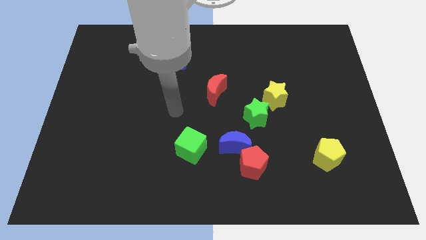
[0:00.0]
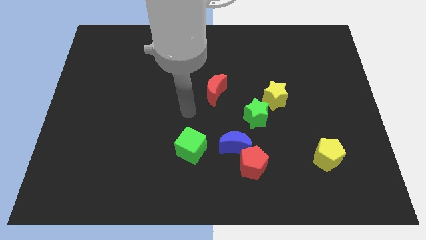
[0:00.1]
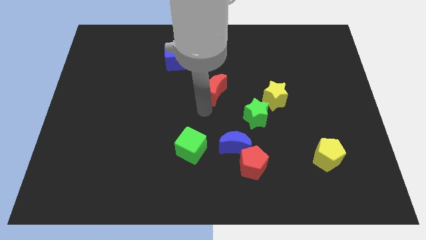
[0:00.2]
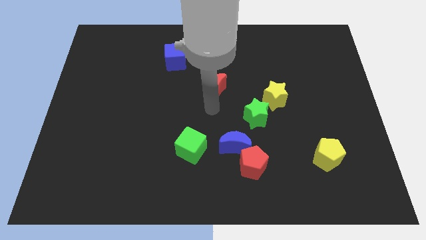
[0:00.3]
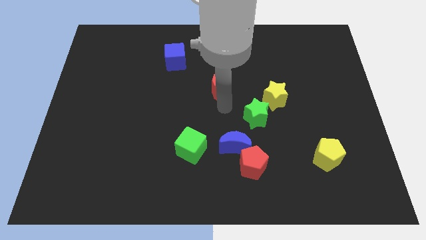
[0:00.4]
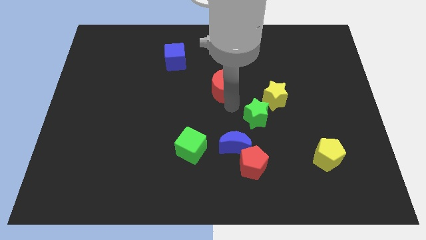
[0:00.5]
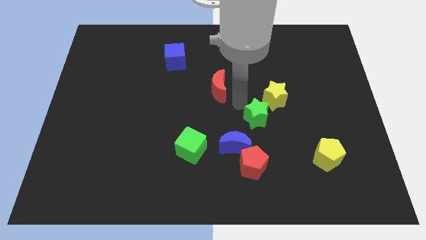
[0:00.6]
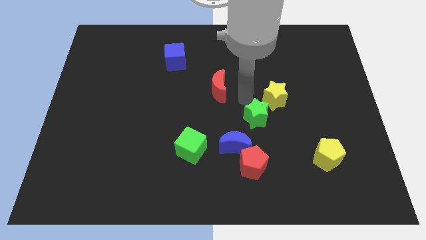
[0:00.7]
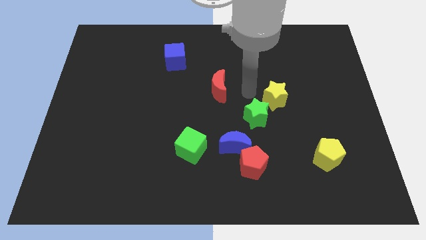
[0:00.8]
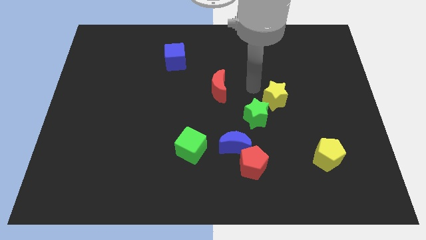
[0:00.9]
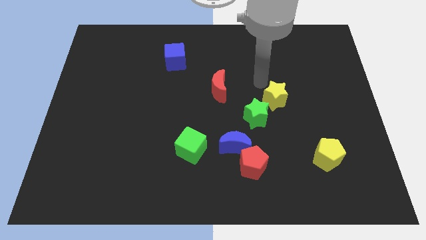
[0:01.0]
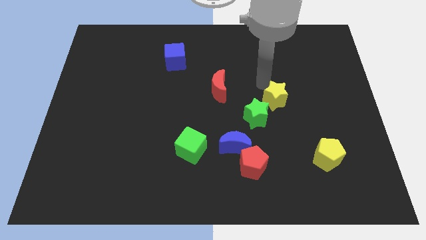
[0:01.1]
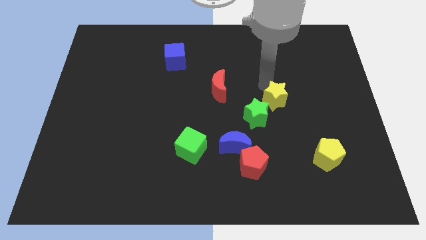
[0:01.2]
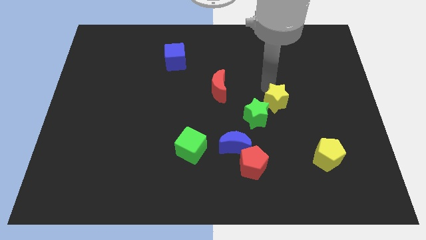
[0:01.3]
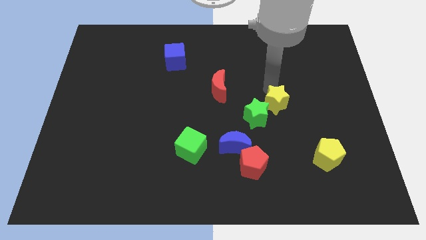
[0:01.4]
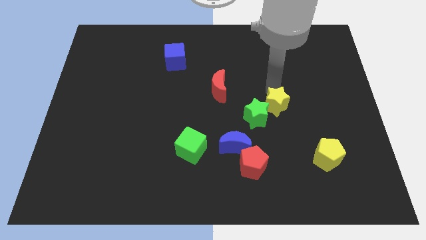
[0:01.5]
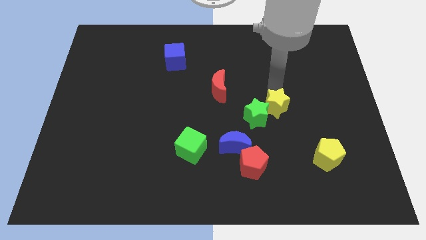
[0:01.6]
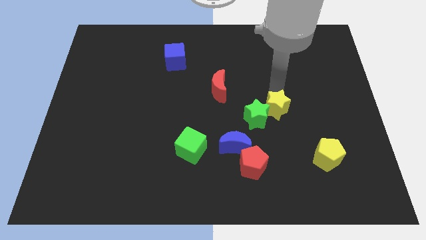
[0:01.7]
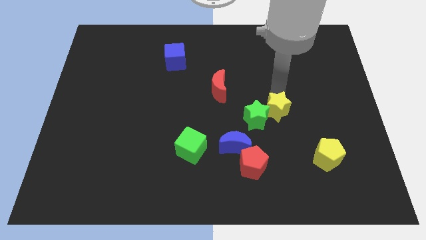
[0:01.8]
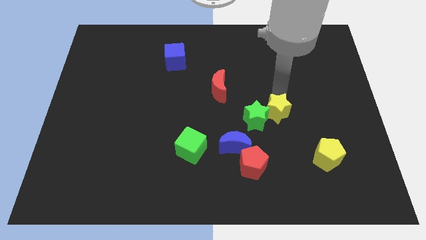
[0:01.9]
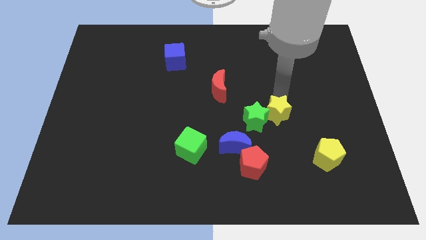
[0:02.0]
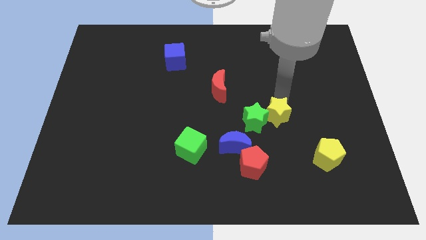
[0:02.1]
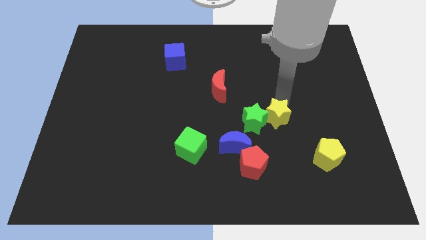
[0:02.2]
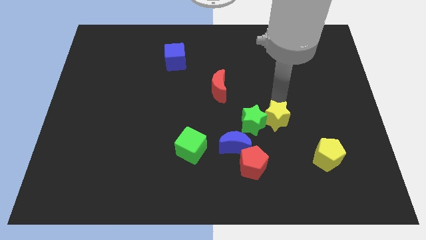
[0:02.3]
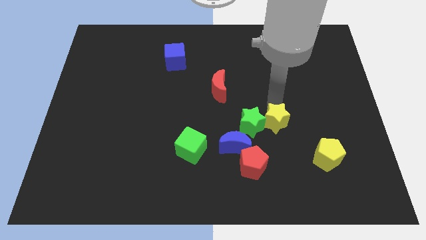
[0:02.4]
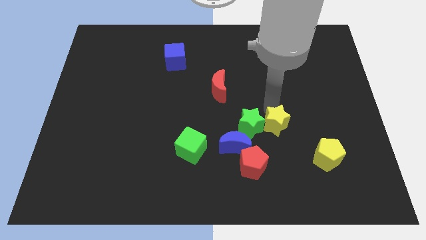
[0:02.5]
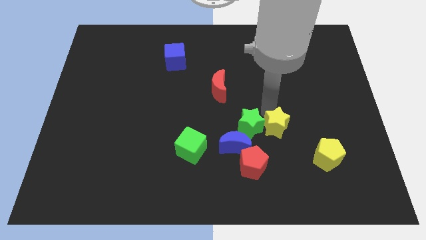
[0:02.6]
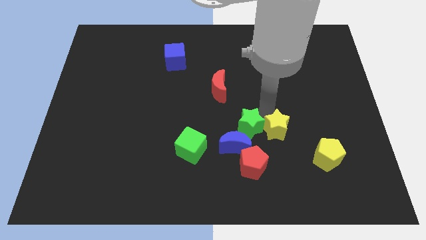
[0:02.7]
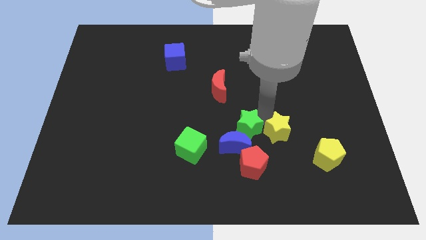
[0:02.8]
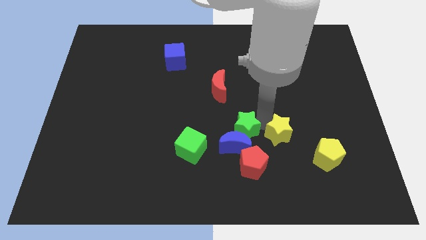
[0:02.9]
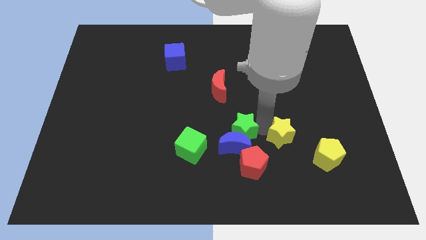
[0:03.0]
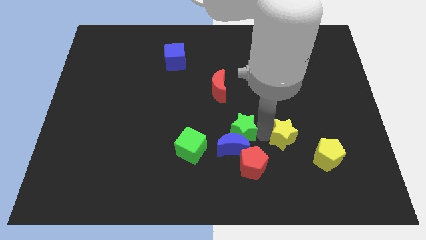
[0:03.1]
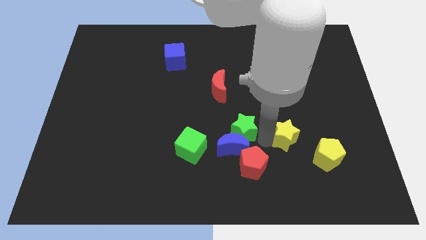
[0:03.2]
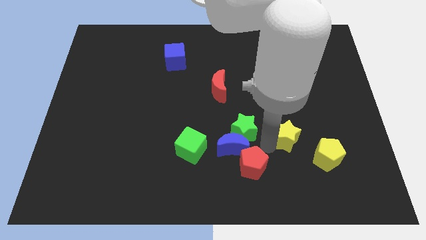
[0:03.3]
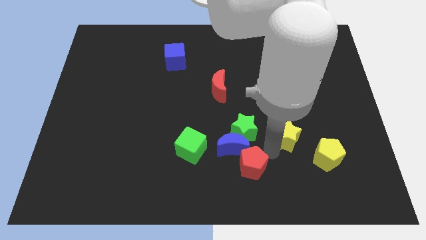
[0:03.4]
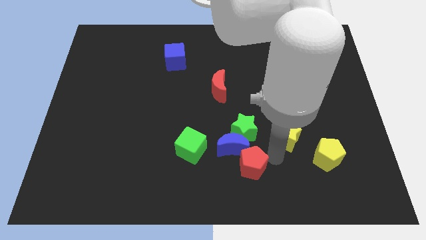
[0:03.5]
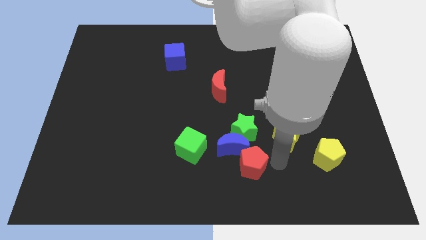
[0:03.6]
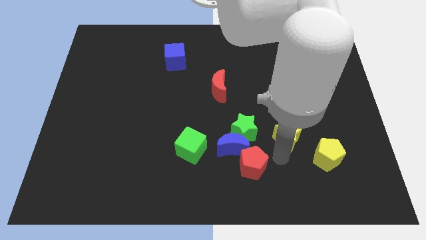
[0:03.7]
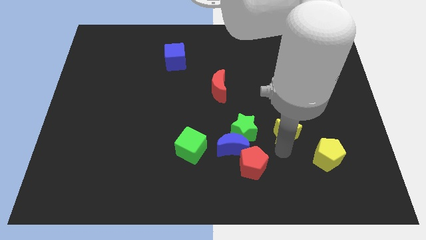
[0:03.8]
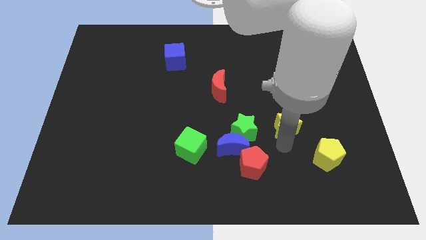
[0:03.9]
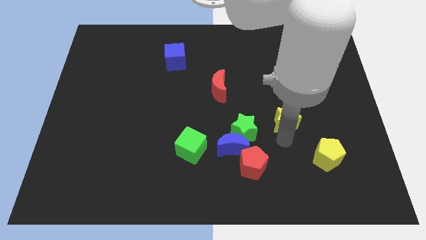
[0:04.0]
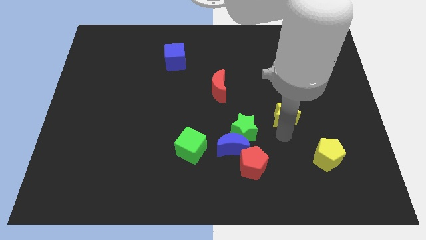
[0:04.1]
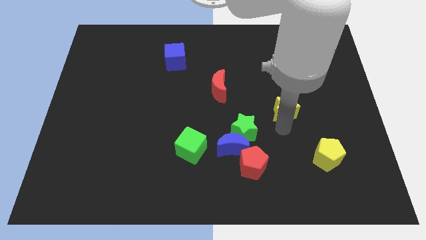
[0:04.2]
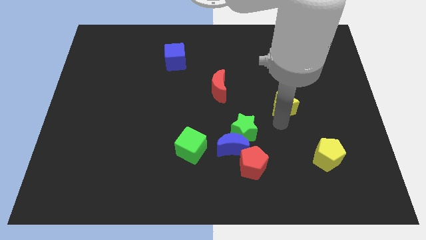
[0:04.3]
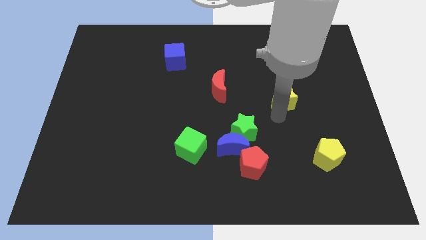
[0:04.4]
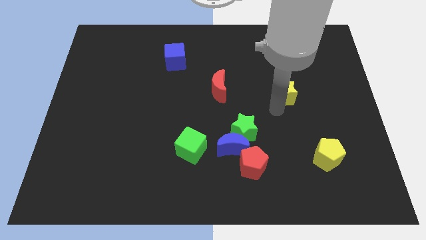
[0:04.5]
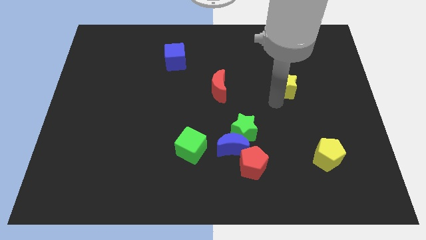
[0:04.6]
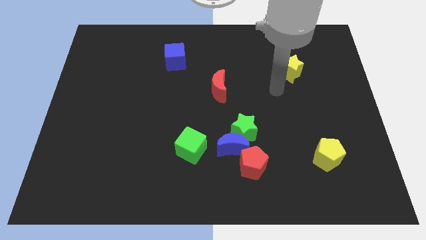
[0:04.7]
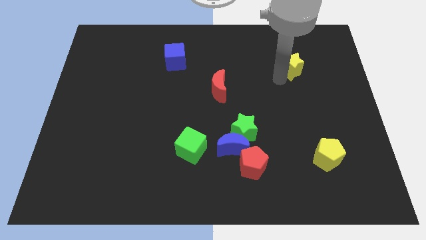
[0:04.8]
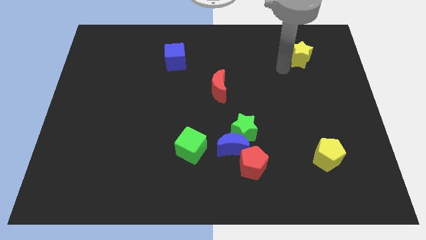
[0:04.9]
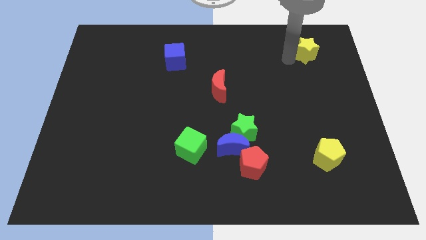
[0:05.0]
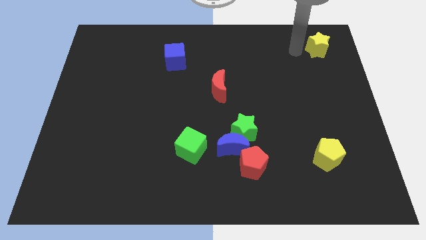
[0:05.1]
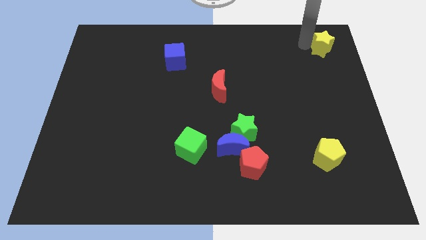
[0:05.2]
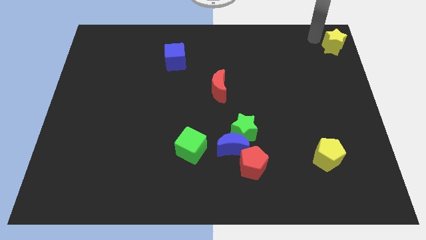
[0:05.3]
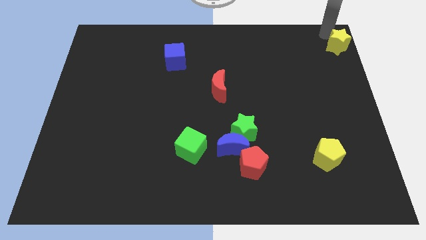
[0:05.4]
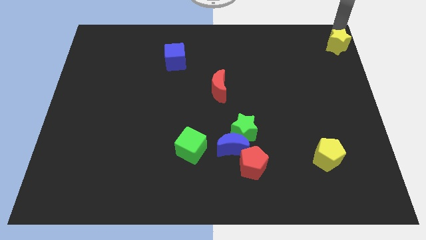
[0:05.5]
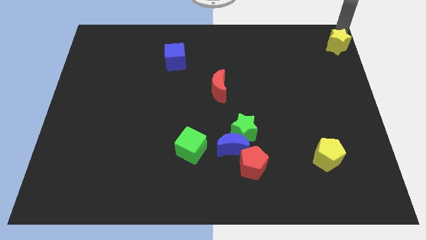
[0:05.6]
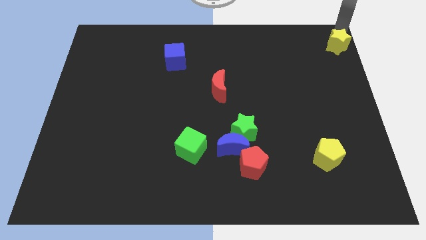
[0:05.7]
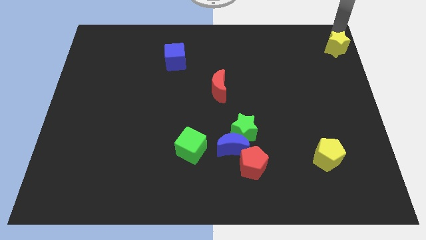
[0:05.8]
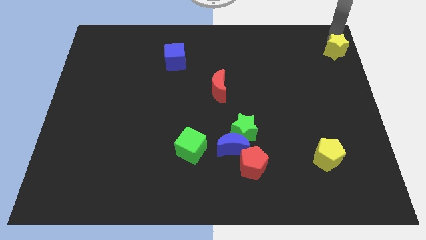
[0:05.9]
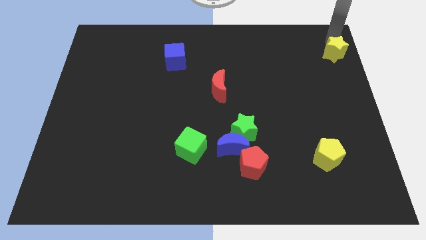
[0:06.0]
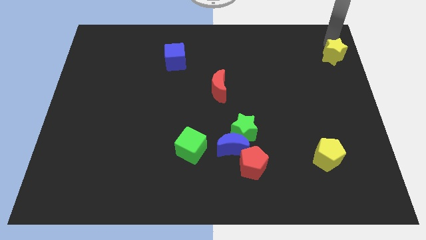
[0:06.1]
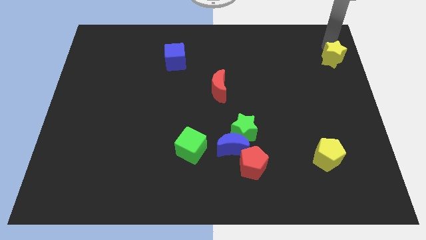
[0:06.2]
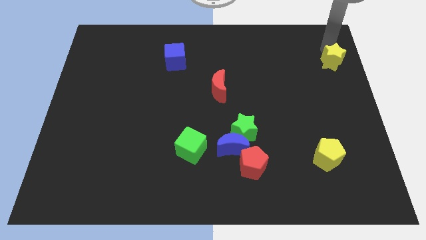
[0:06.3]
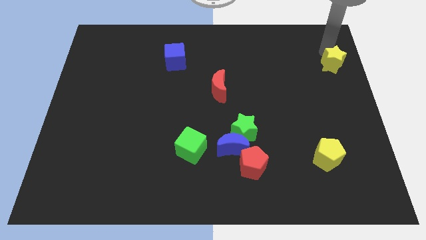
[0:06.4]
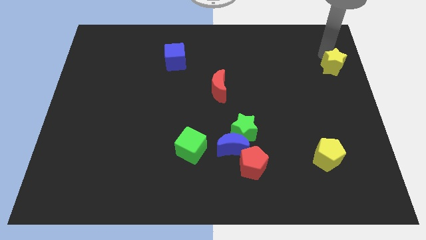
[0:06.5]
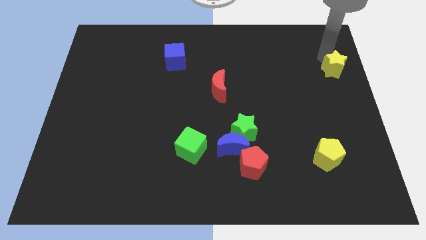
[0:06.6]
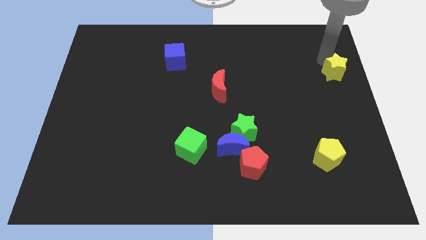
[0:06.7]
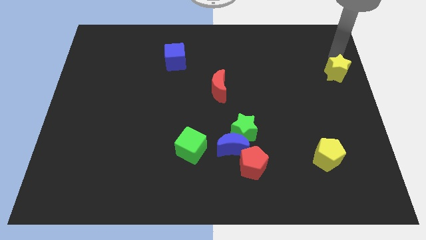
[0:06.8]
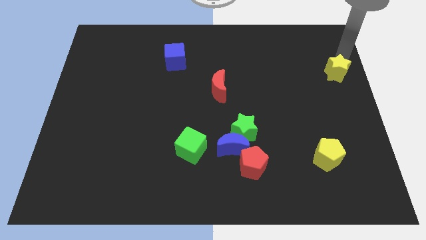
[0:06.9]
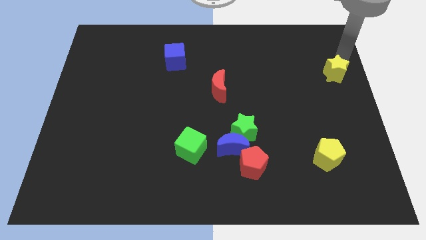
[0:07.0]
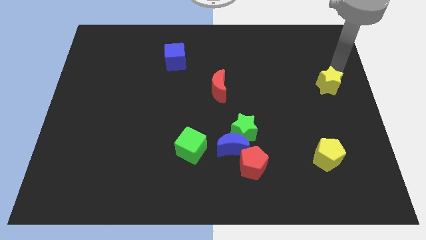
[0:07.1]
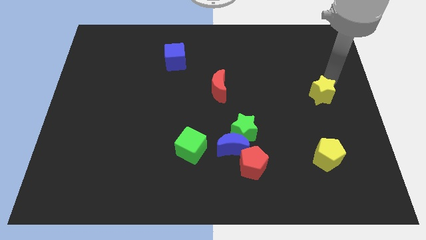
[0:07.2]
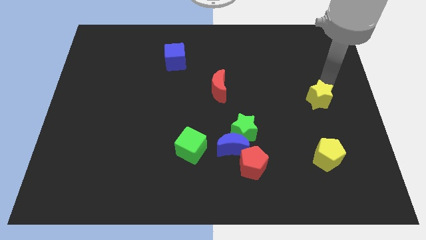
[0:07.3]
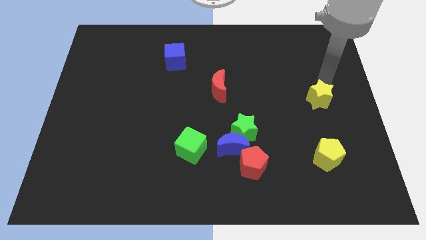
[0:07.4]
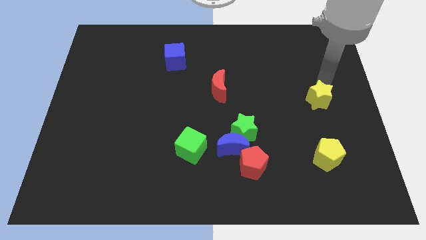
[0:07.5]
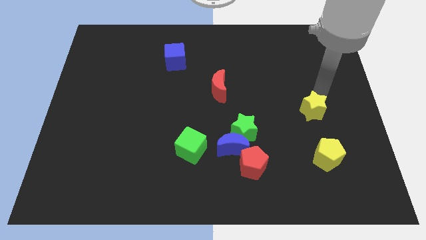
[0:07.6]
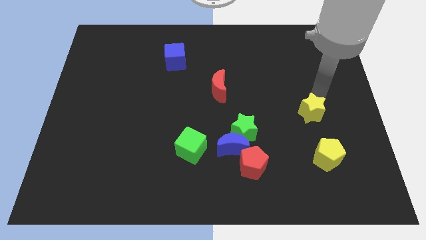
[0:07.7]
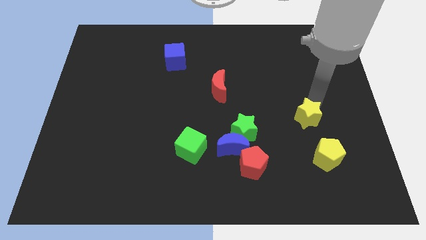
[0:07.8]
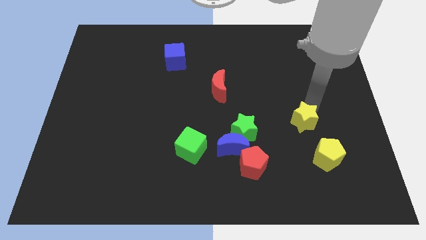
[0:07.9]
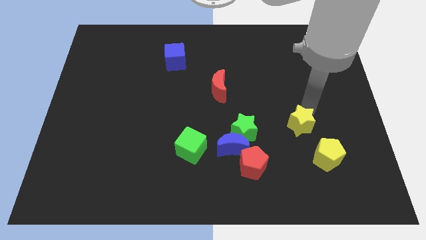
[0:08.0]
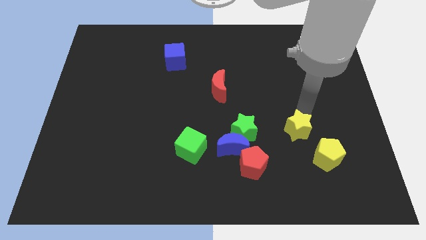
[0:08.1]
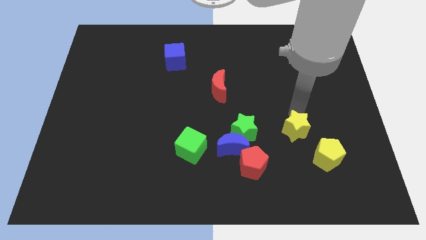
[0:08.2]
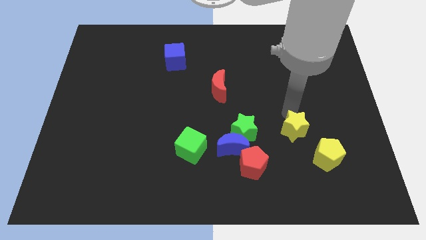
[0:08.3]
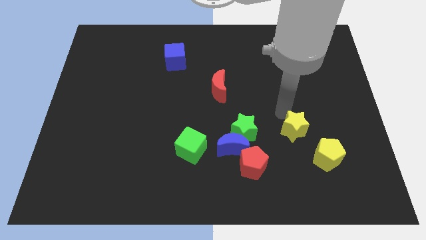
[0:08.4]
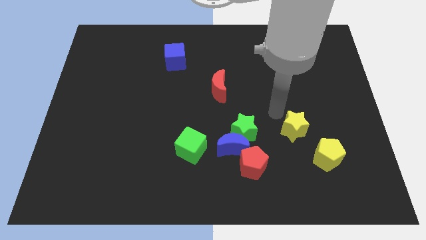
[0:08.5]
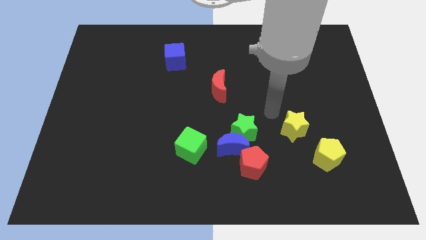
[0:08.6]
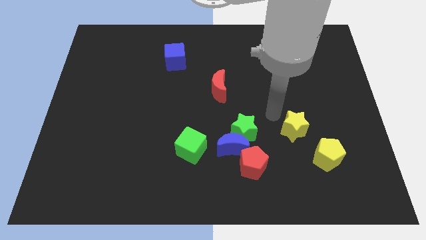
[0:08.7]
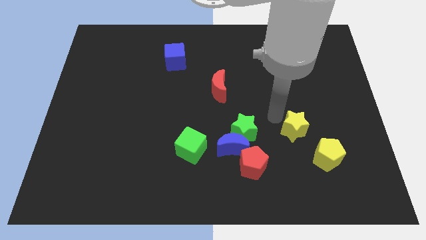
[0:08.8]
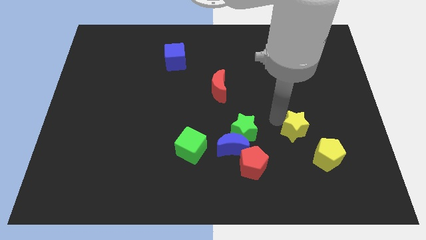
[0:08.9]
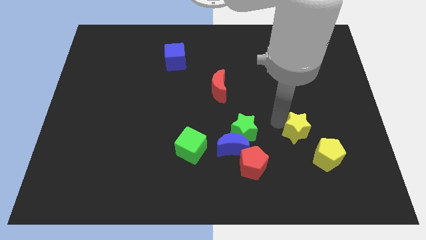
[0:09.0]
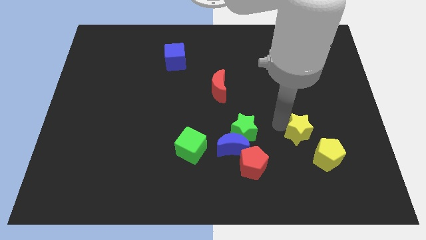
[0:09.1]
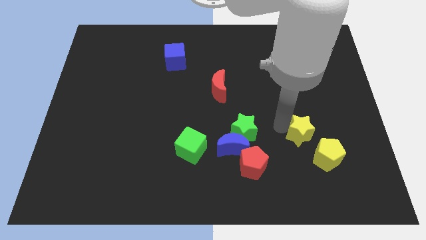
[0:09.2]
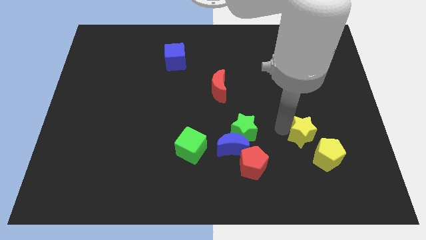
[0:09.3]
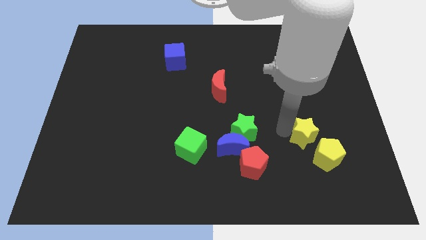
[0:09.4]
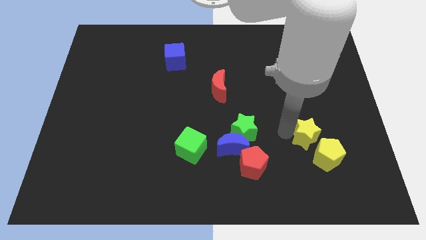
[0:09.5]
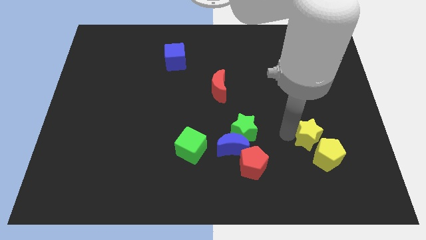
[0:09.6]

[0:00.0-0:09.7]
push the yellow star close to the yellow pentagon
